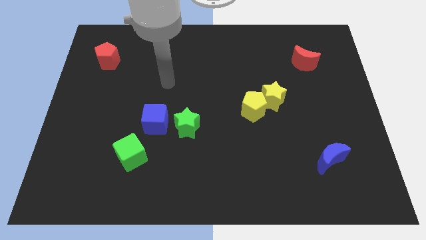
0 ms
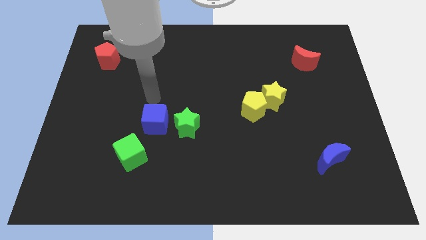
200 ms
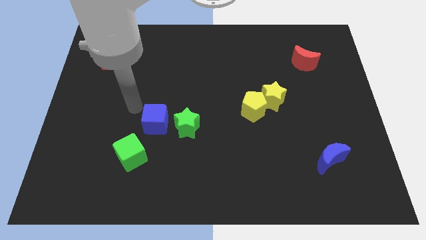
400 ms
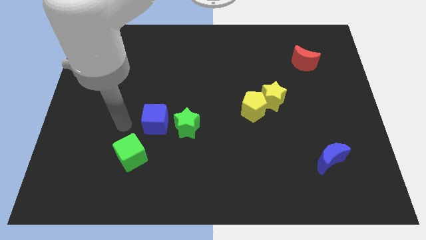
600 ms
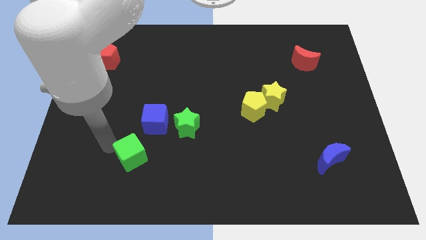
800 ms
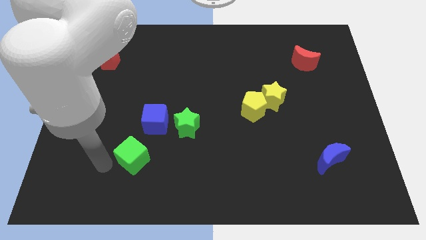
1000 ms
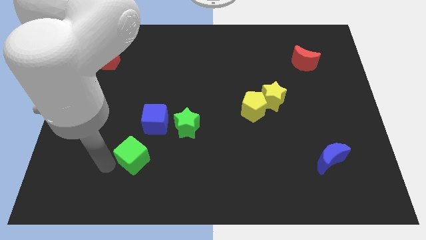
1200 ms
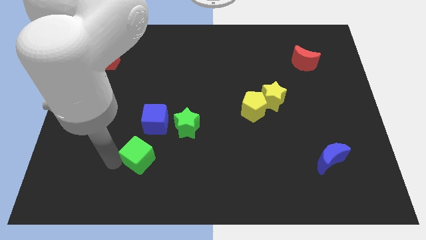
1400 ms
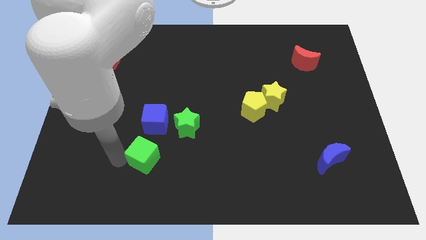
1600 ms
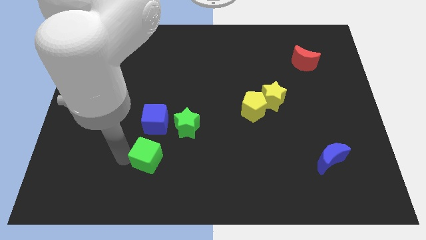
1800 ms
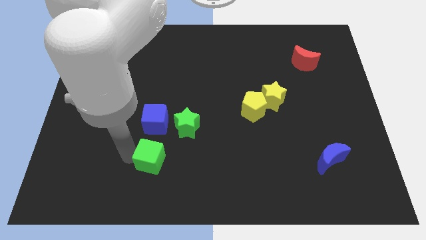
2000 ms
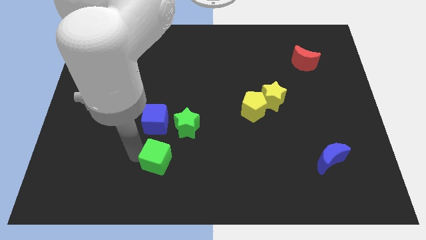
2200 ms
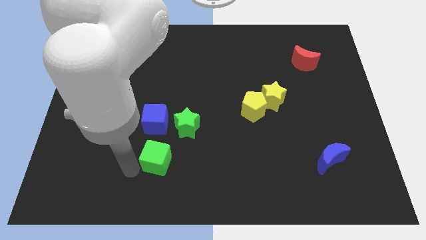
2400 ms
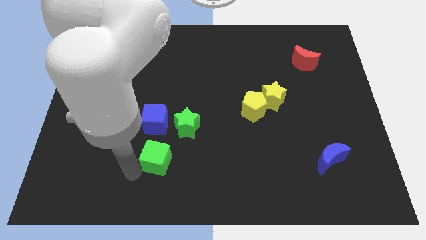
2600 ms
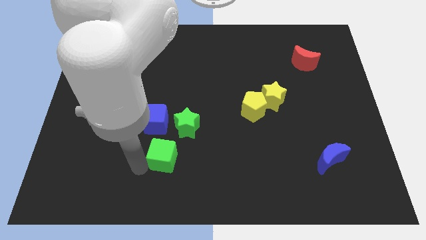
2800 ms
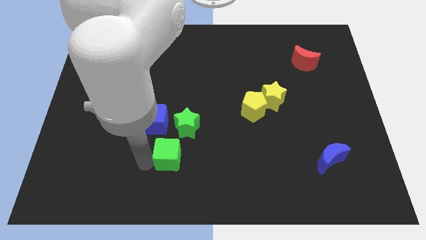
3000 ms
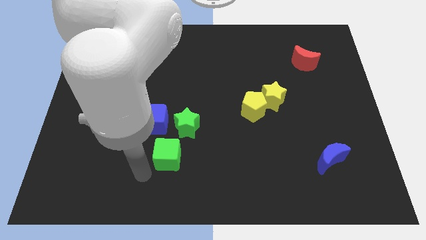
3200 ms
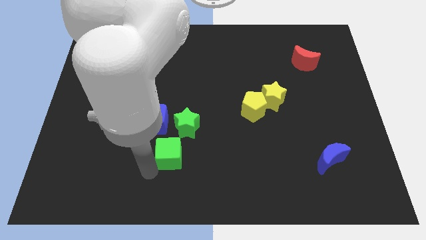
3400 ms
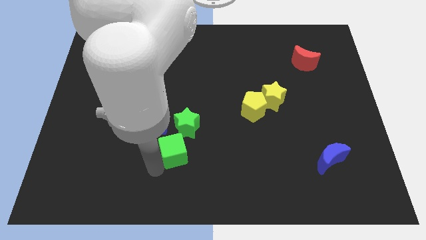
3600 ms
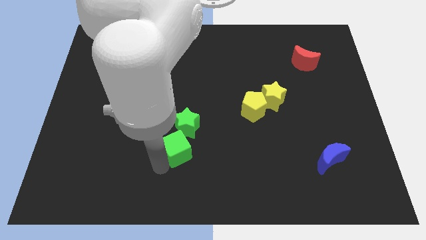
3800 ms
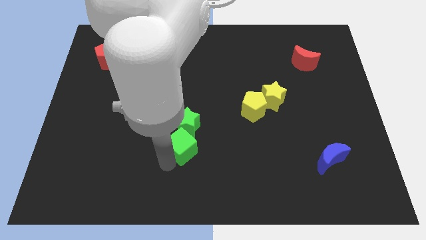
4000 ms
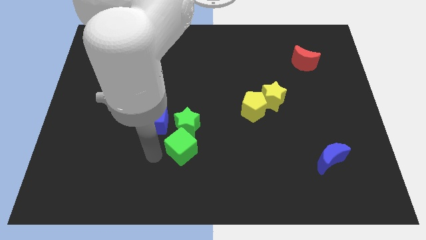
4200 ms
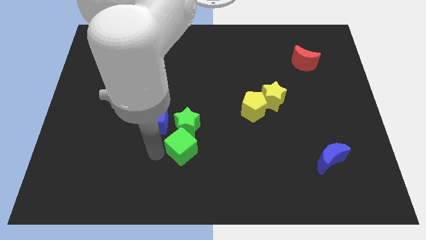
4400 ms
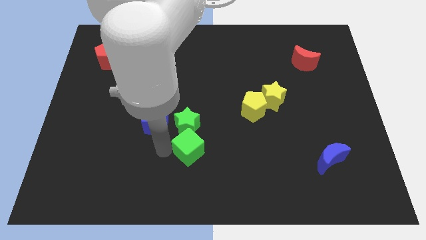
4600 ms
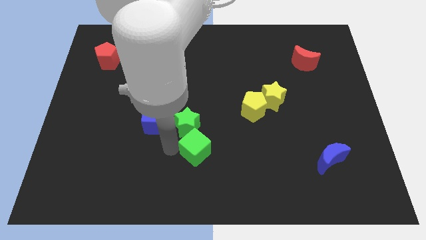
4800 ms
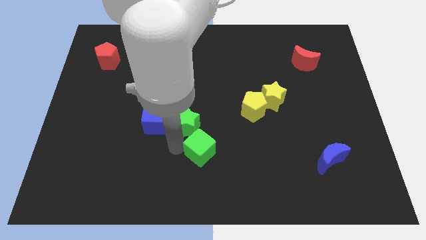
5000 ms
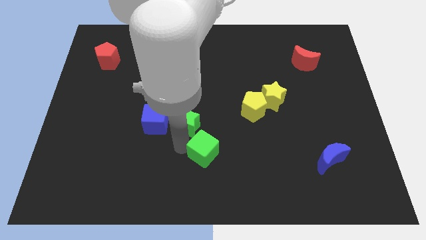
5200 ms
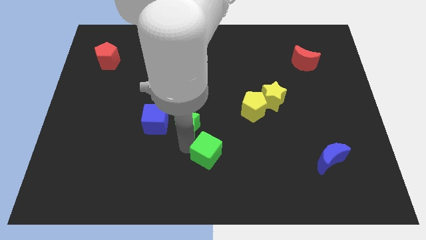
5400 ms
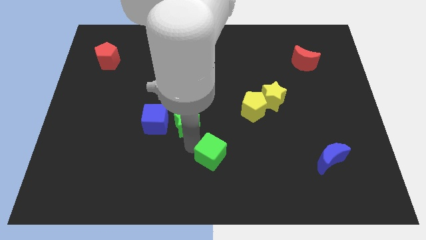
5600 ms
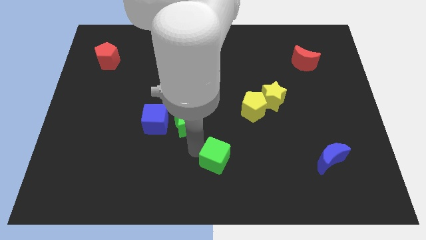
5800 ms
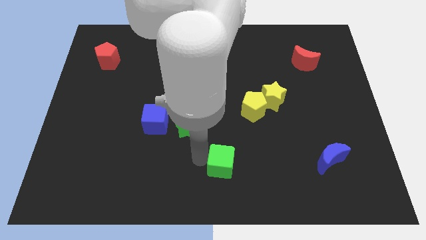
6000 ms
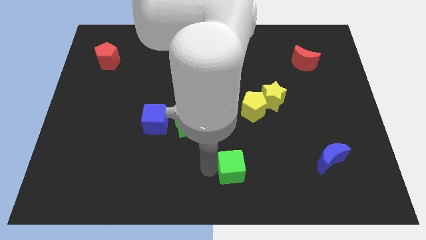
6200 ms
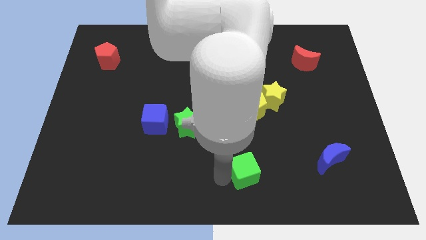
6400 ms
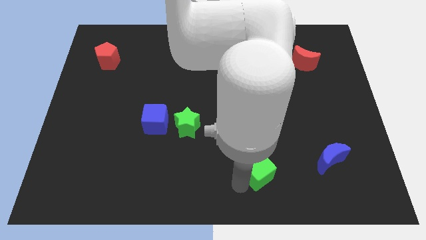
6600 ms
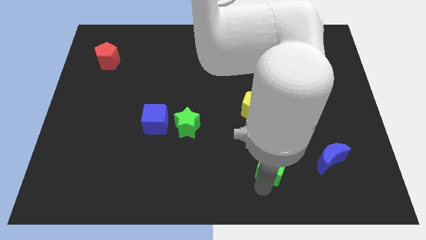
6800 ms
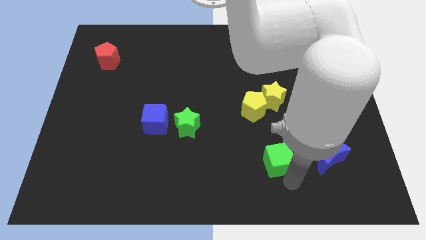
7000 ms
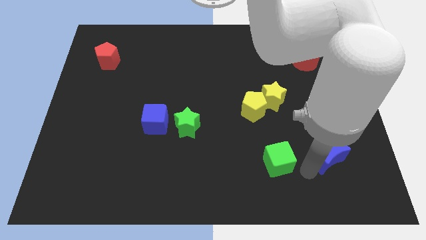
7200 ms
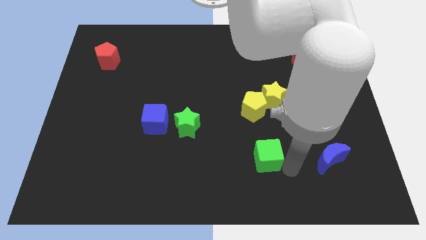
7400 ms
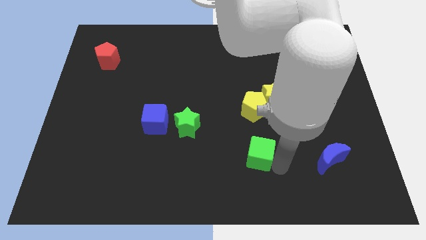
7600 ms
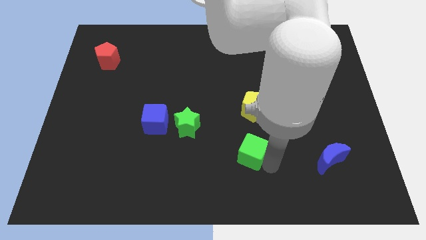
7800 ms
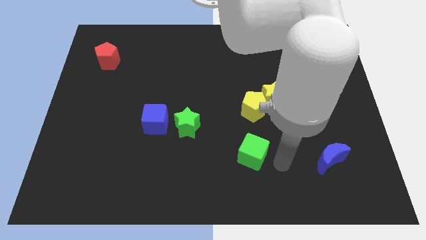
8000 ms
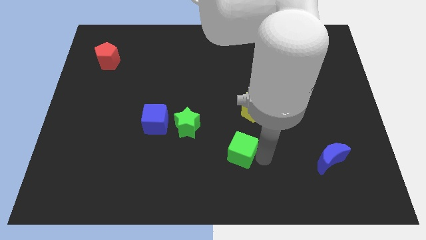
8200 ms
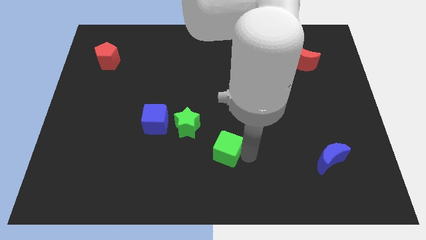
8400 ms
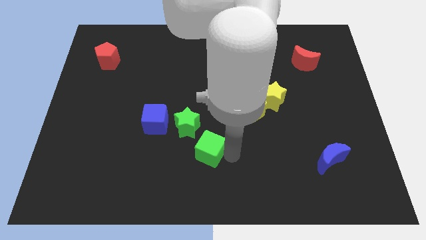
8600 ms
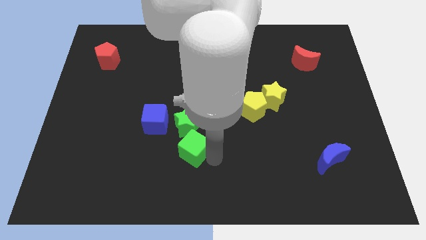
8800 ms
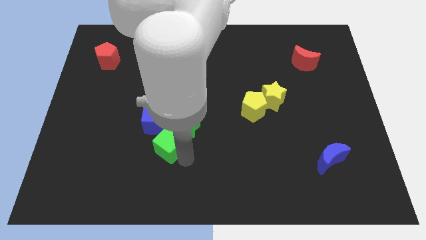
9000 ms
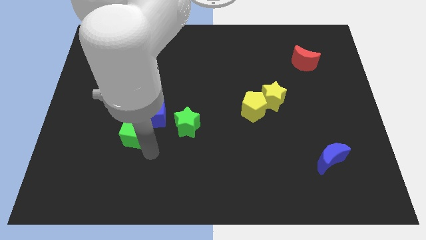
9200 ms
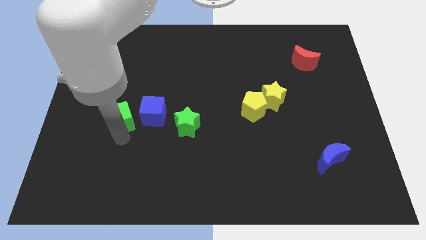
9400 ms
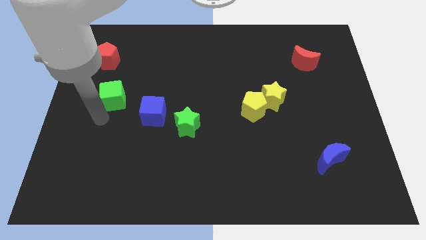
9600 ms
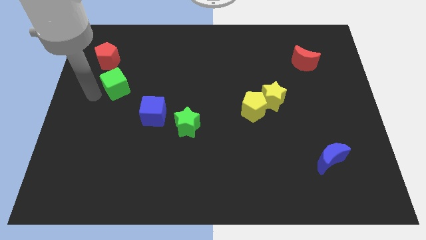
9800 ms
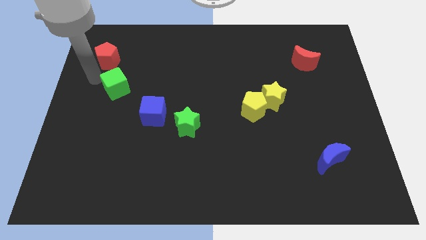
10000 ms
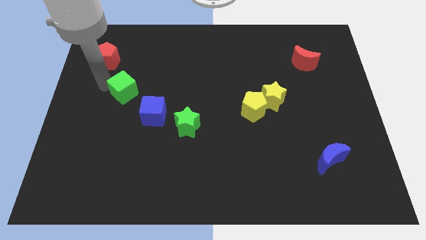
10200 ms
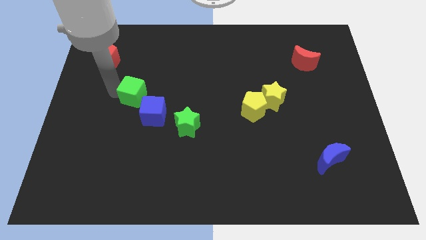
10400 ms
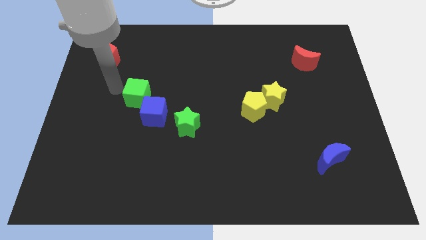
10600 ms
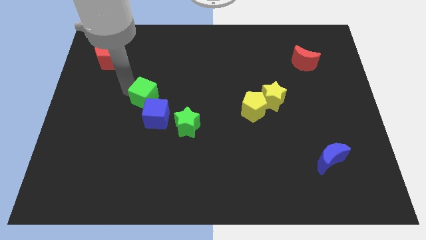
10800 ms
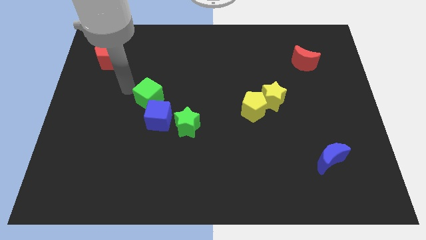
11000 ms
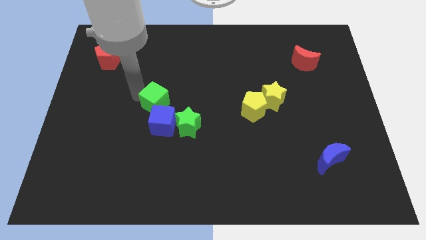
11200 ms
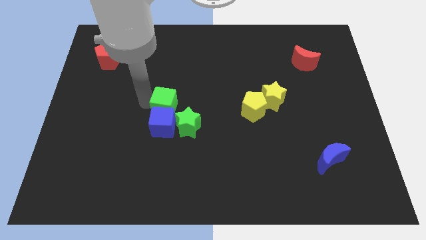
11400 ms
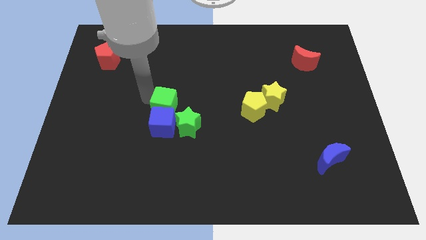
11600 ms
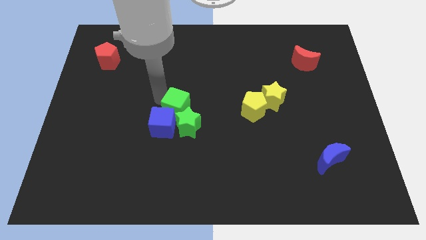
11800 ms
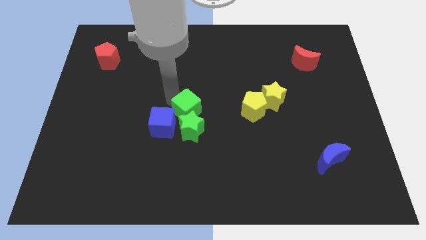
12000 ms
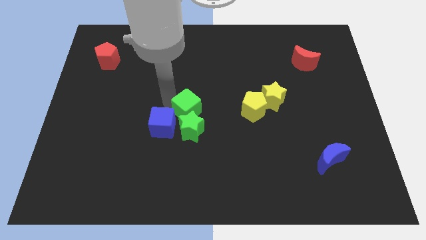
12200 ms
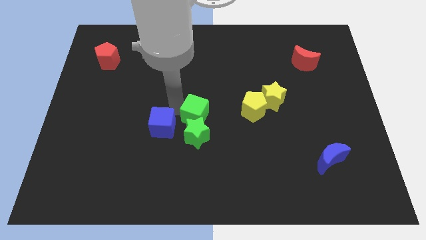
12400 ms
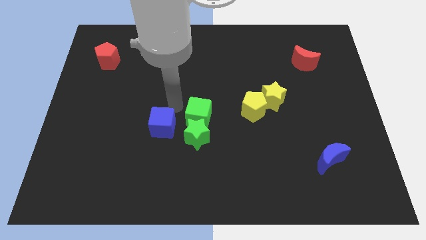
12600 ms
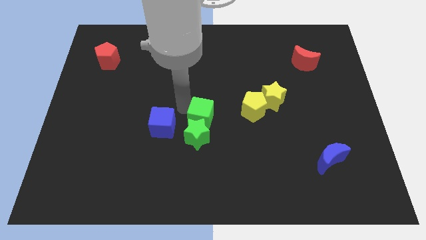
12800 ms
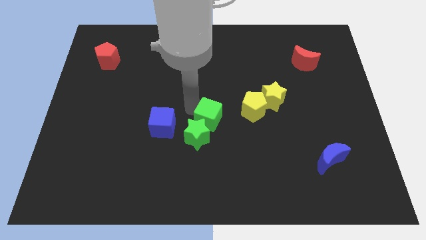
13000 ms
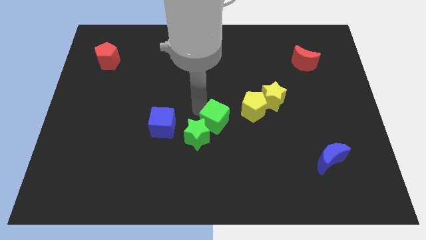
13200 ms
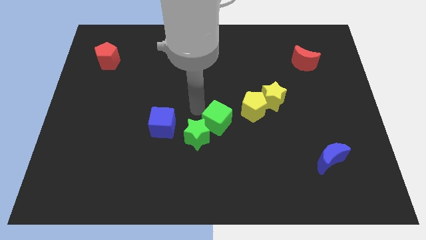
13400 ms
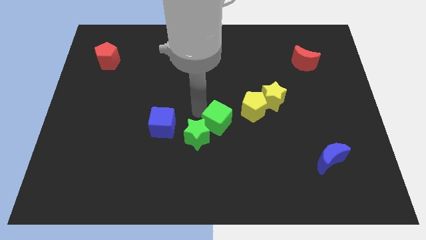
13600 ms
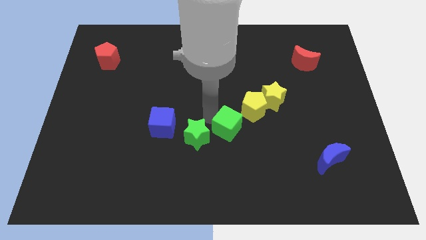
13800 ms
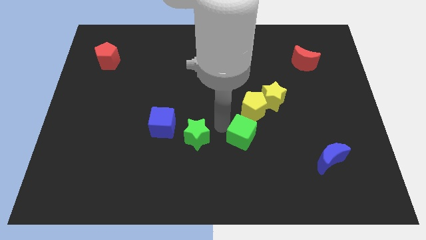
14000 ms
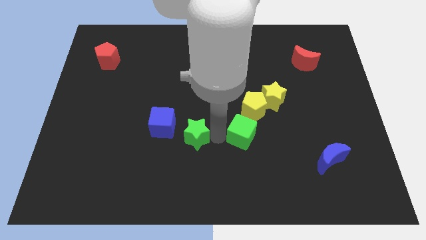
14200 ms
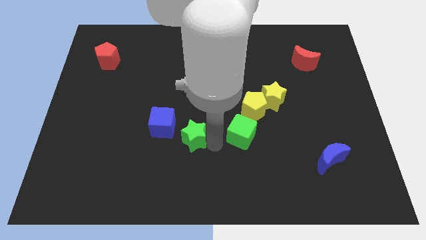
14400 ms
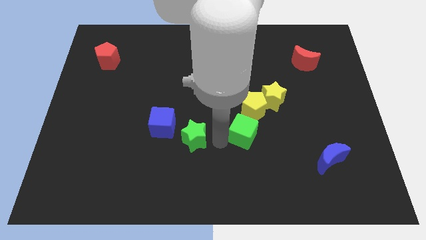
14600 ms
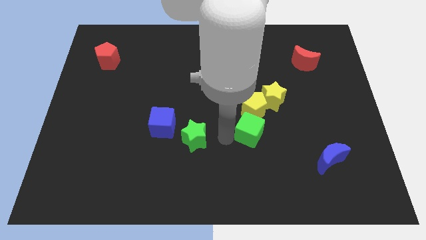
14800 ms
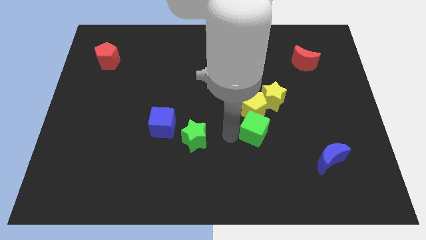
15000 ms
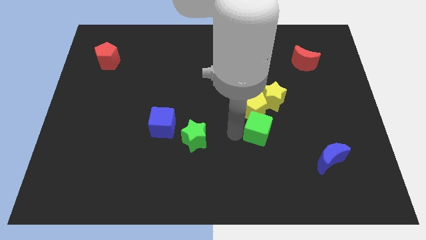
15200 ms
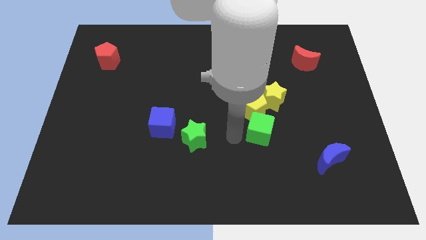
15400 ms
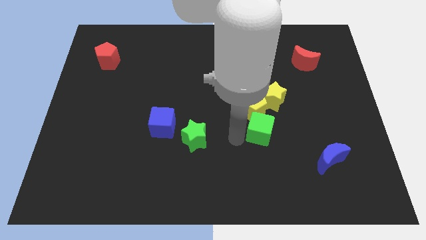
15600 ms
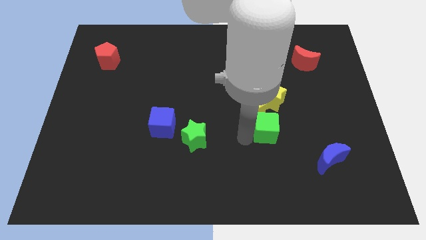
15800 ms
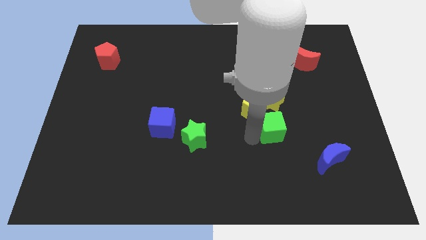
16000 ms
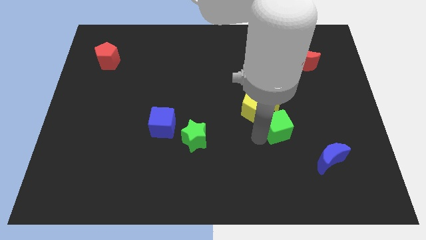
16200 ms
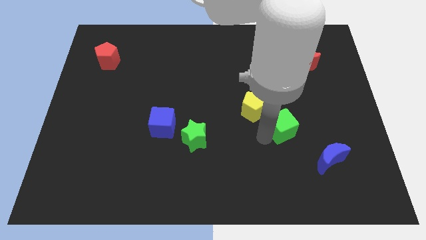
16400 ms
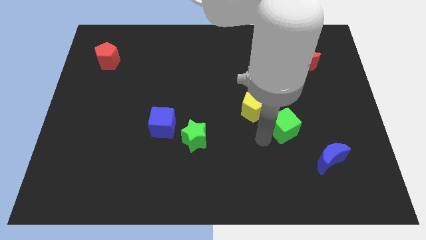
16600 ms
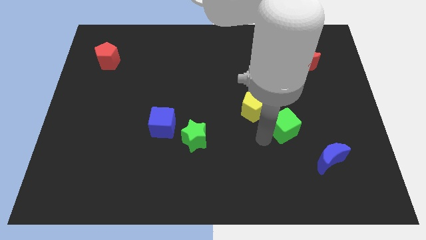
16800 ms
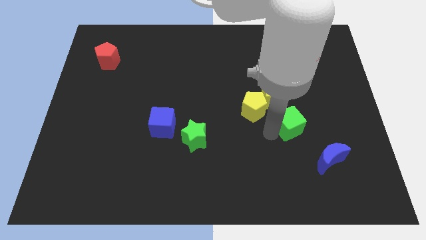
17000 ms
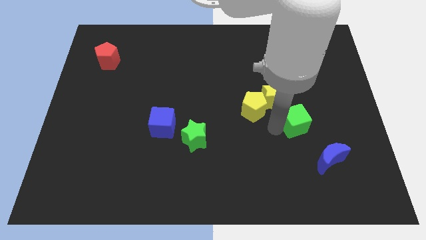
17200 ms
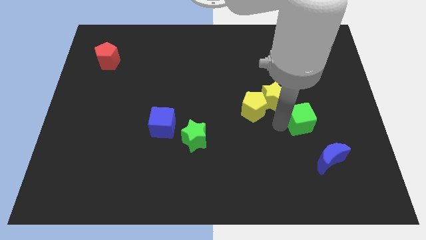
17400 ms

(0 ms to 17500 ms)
slide the green cube to the top of the blue moon
